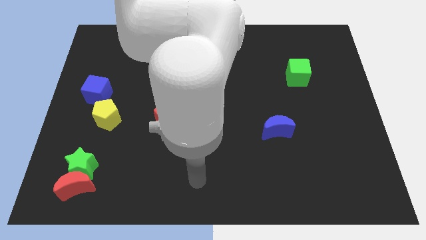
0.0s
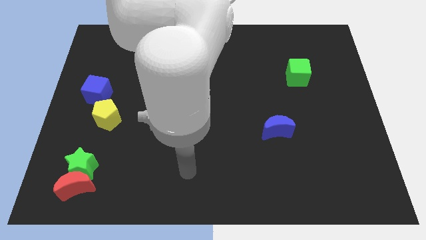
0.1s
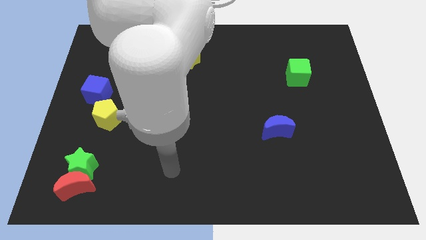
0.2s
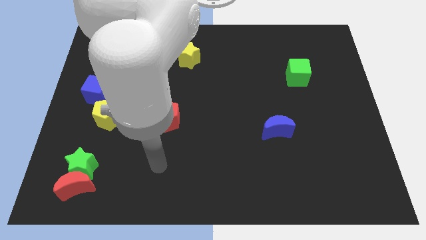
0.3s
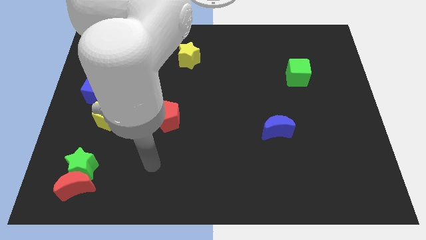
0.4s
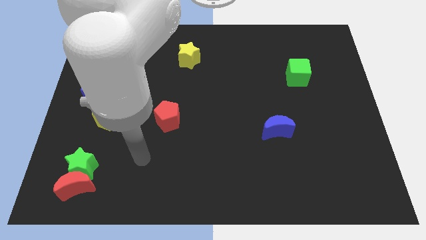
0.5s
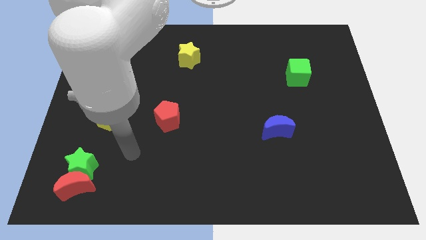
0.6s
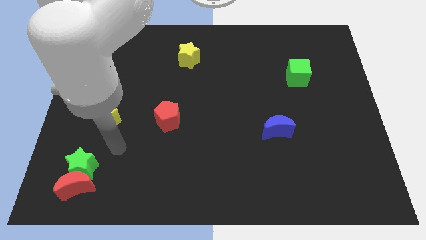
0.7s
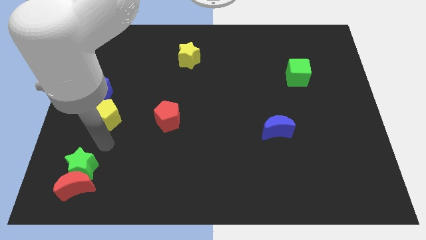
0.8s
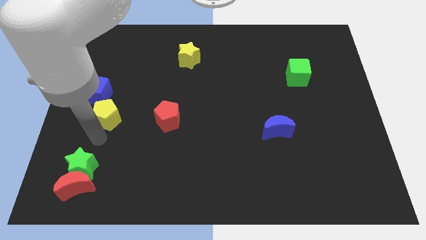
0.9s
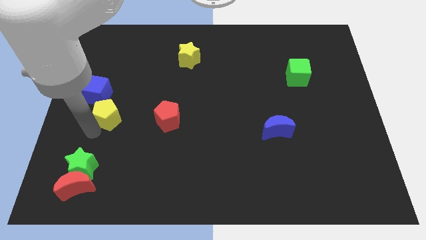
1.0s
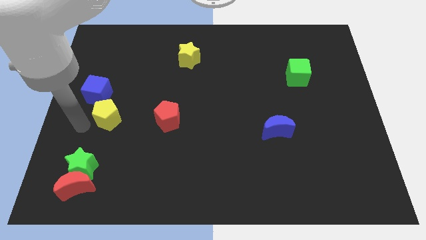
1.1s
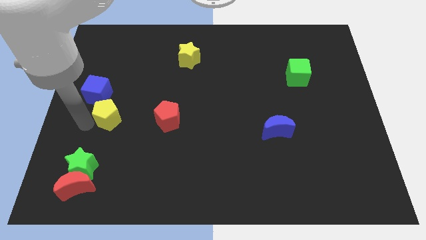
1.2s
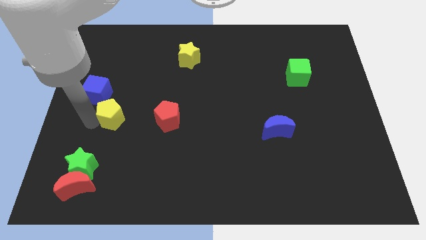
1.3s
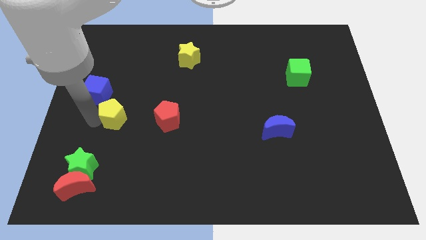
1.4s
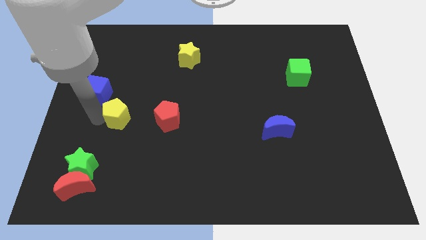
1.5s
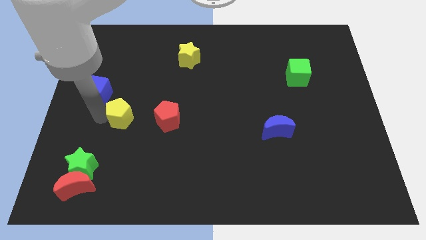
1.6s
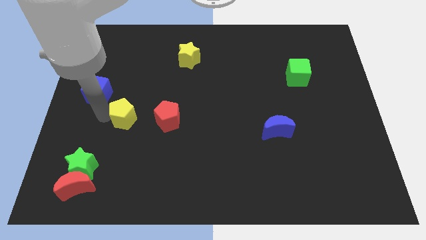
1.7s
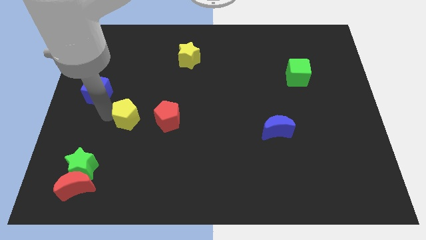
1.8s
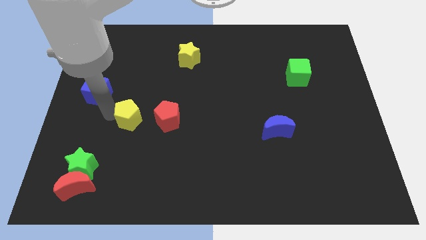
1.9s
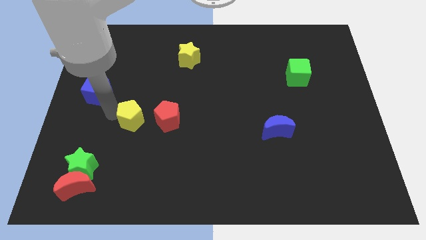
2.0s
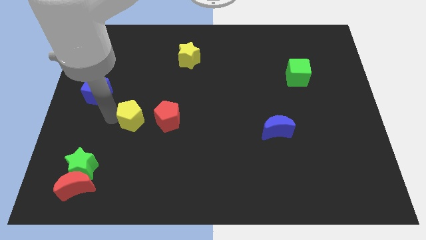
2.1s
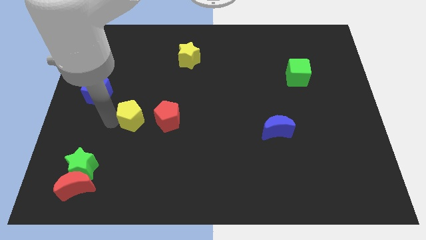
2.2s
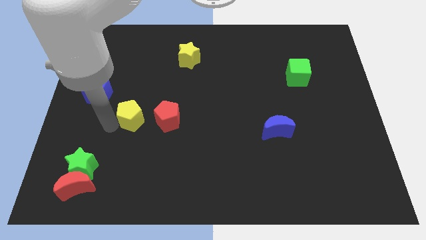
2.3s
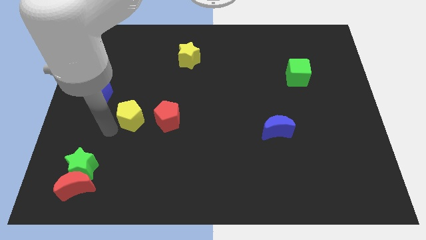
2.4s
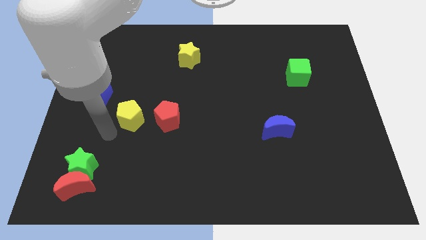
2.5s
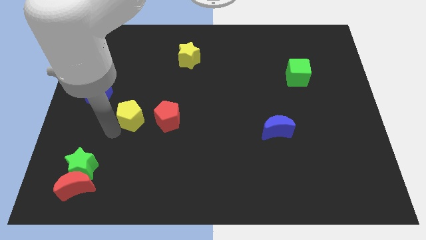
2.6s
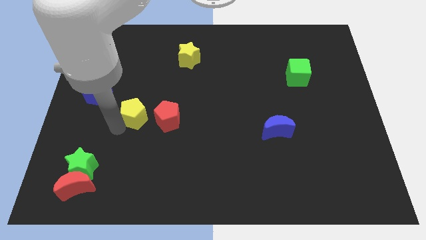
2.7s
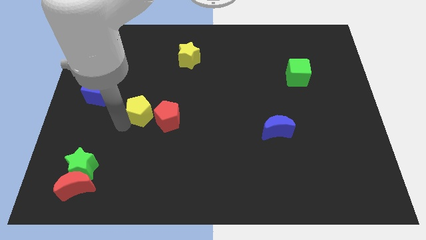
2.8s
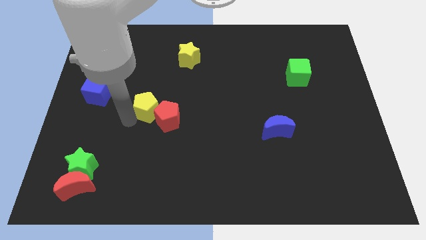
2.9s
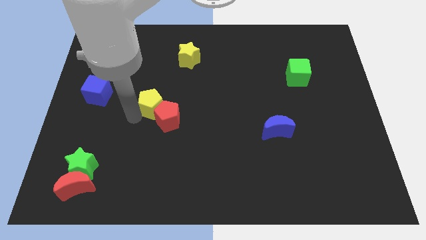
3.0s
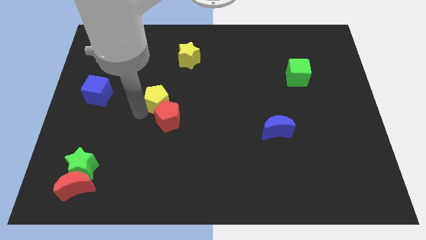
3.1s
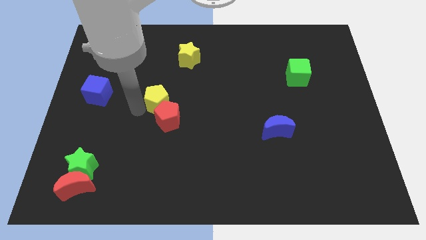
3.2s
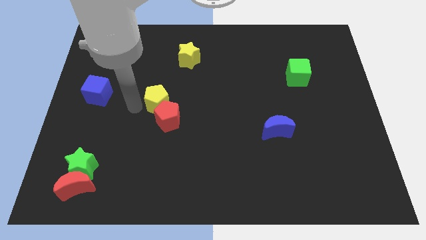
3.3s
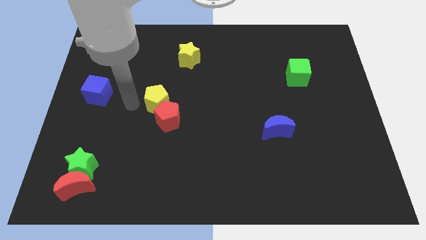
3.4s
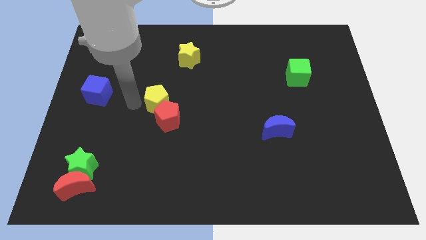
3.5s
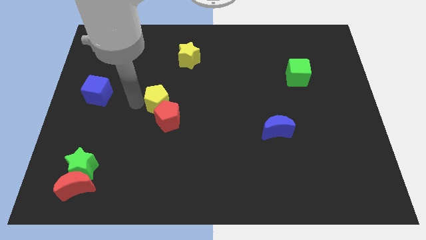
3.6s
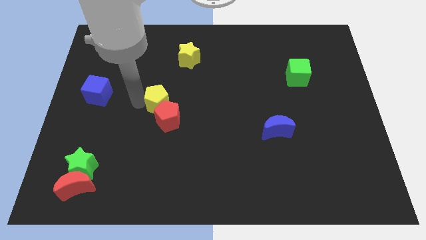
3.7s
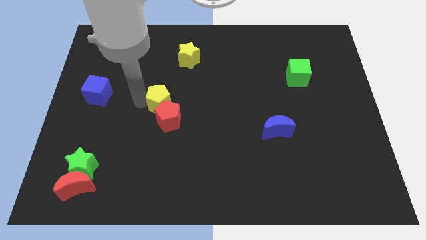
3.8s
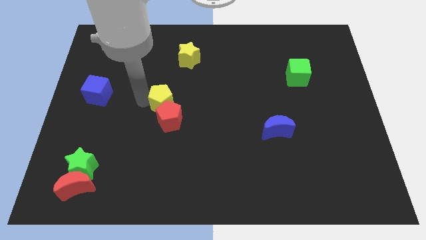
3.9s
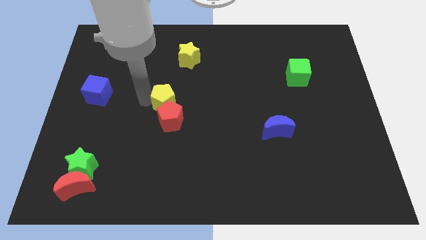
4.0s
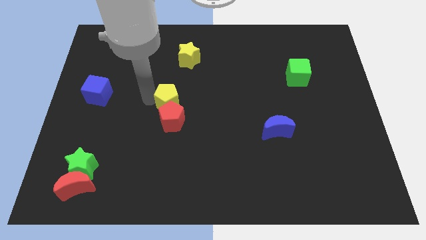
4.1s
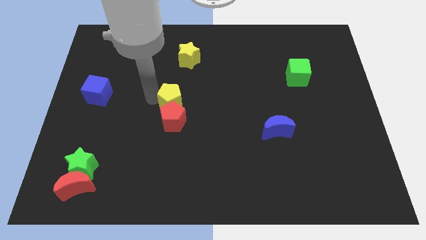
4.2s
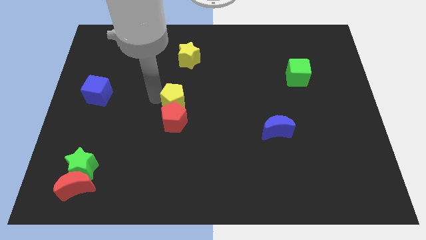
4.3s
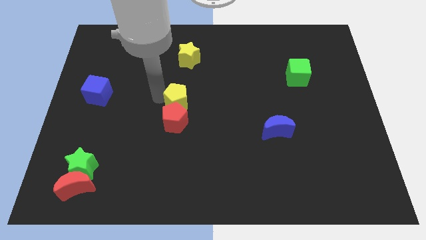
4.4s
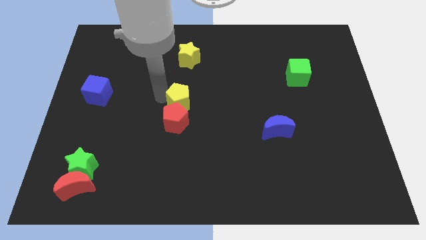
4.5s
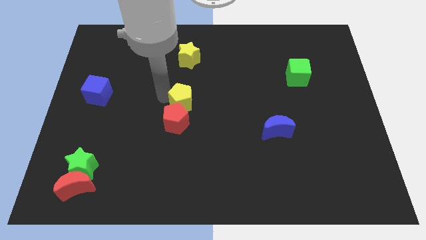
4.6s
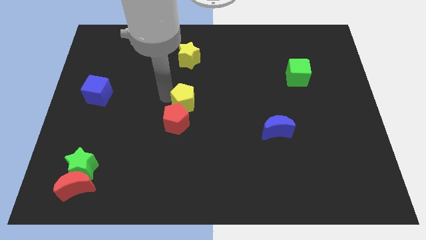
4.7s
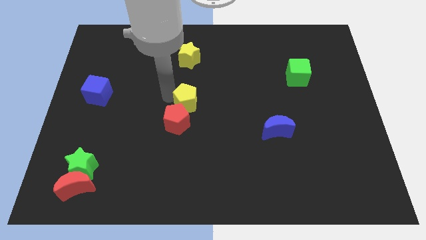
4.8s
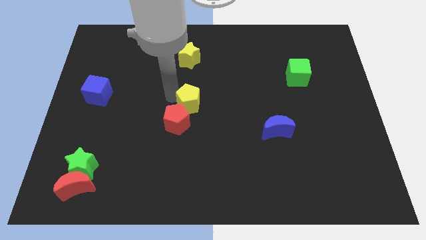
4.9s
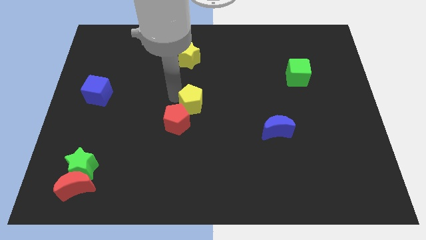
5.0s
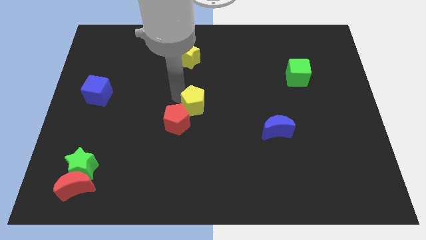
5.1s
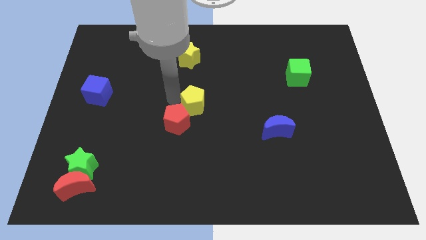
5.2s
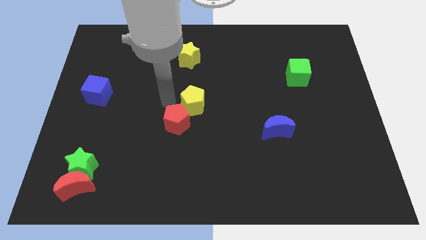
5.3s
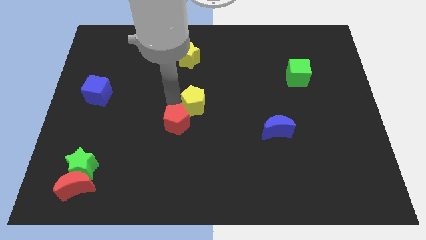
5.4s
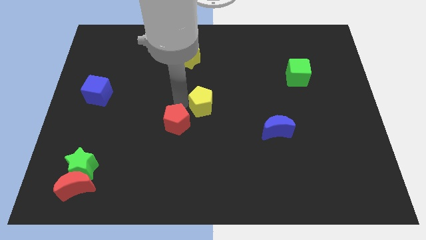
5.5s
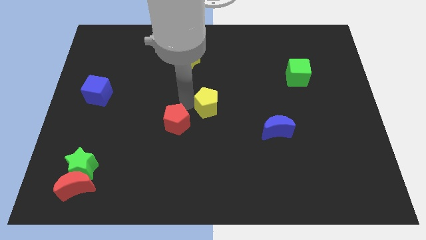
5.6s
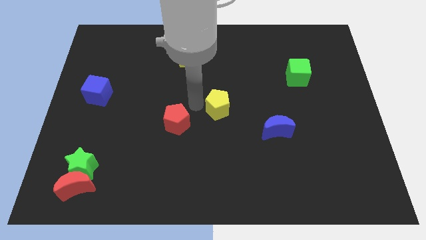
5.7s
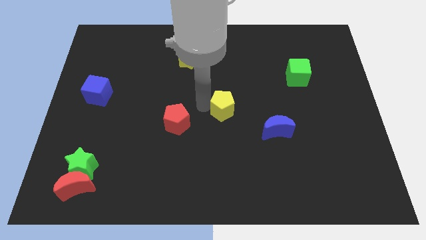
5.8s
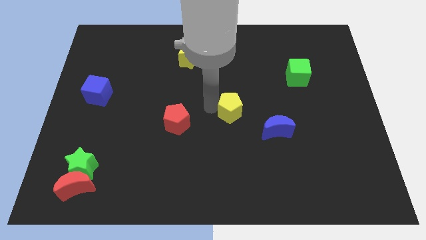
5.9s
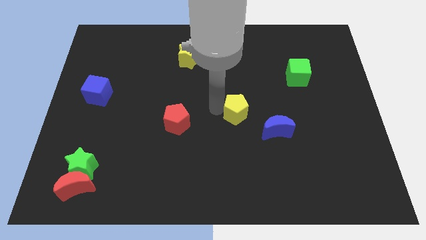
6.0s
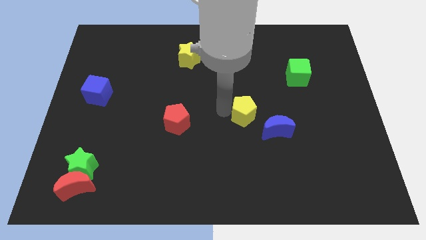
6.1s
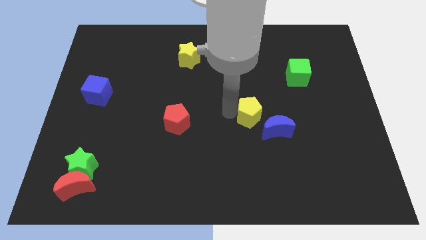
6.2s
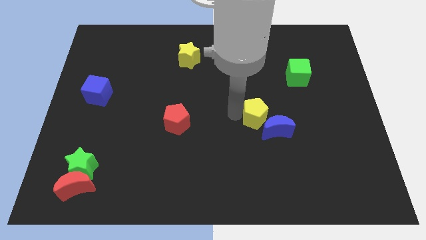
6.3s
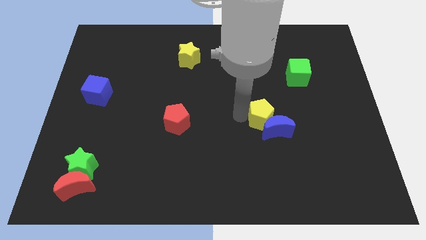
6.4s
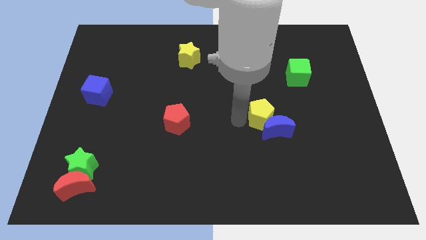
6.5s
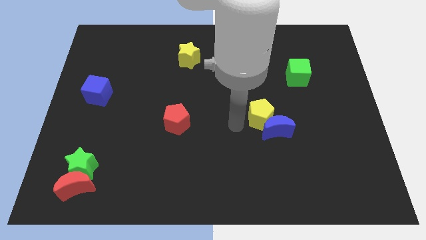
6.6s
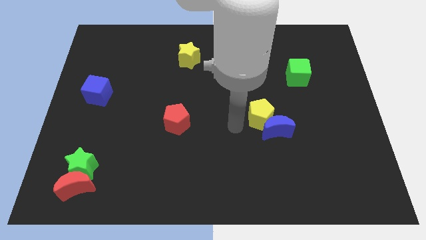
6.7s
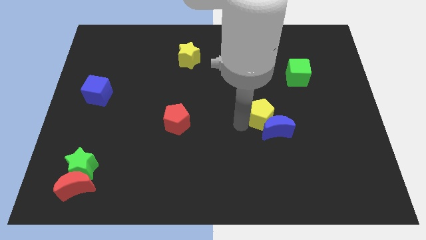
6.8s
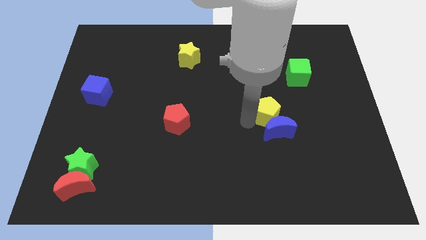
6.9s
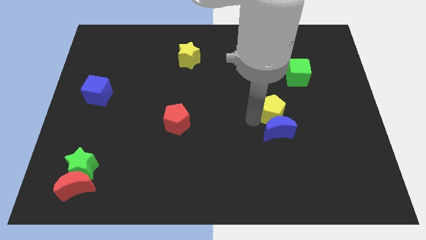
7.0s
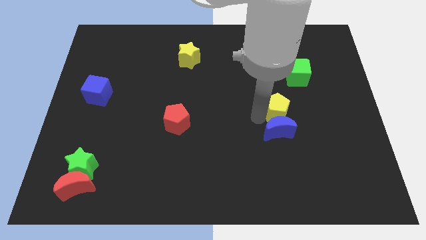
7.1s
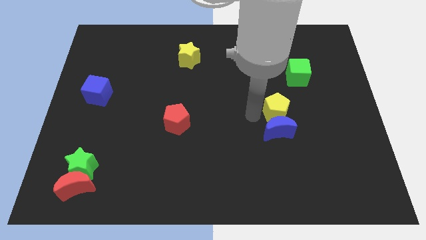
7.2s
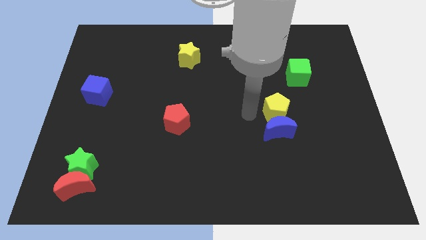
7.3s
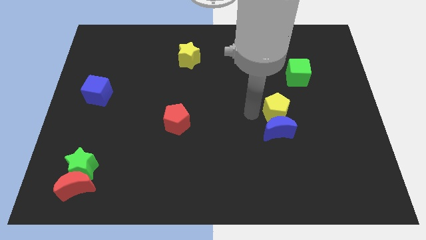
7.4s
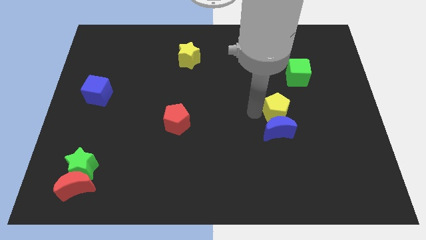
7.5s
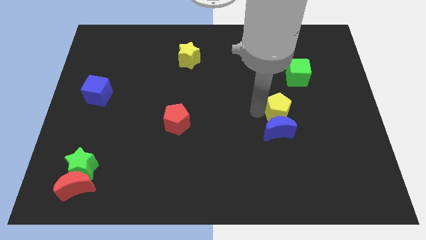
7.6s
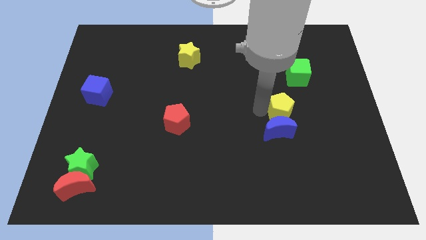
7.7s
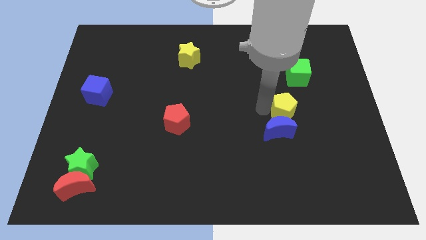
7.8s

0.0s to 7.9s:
move the yellow pentagon below the green cube

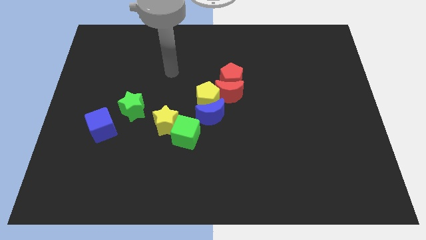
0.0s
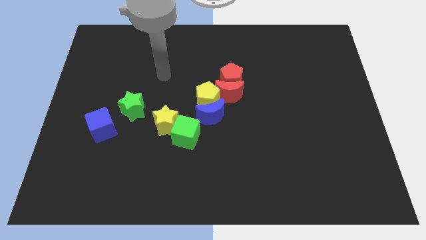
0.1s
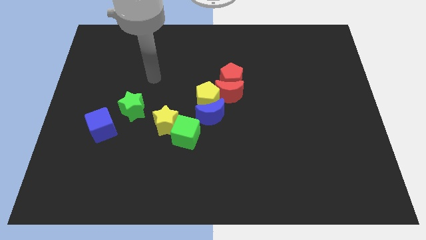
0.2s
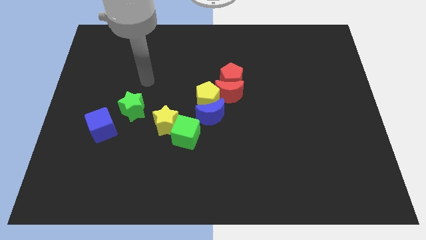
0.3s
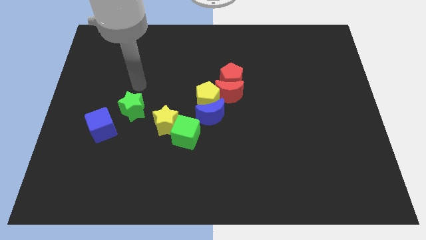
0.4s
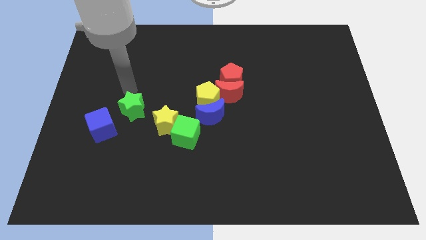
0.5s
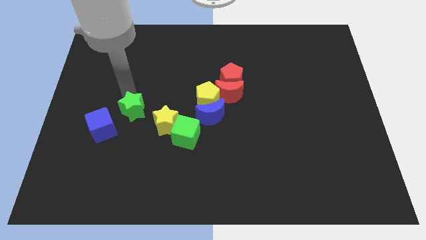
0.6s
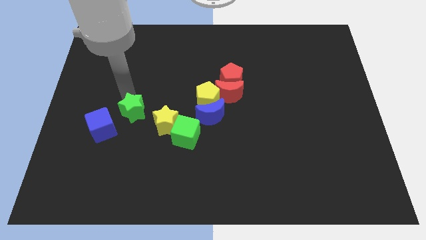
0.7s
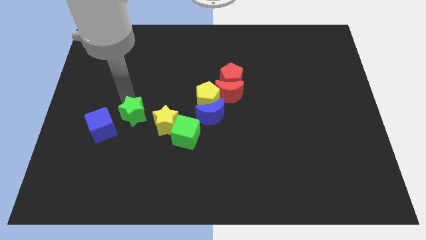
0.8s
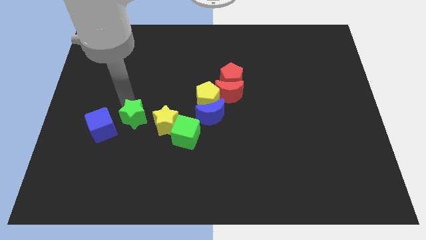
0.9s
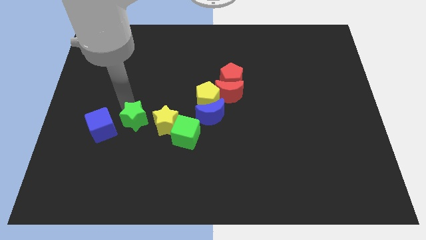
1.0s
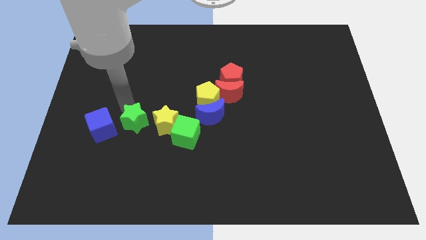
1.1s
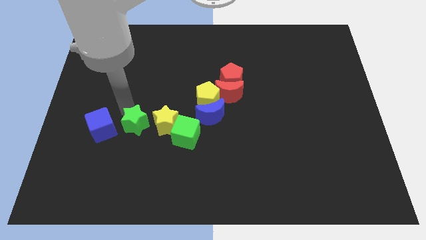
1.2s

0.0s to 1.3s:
slide the green star to the bottom left side of the yellow star
